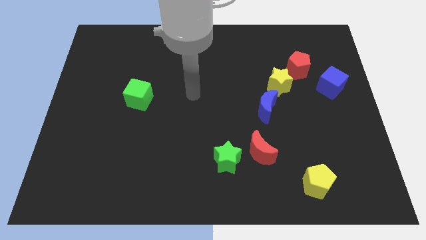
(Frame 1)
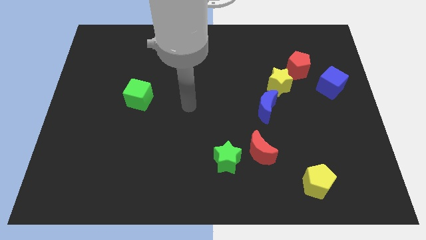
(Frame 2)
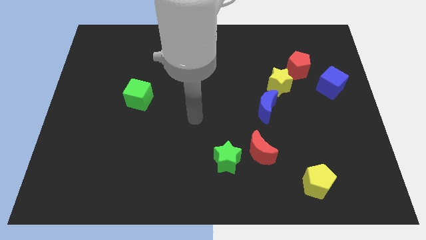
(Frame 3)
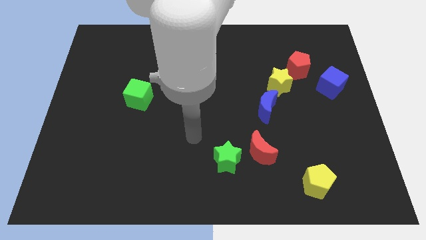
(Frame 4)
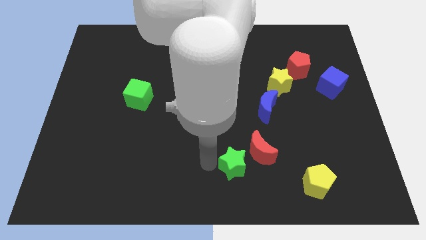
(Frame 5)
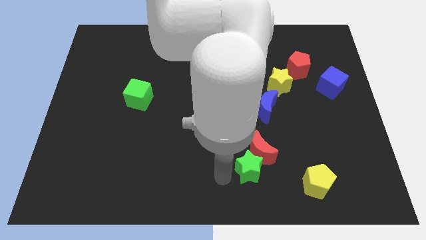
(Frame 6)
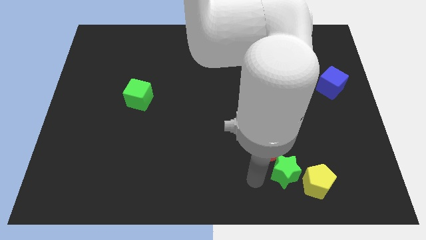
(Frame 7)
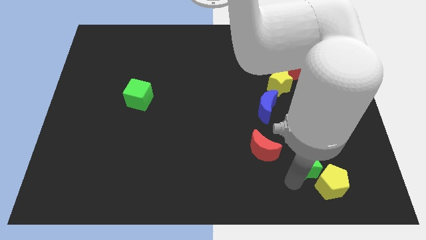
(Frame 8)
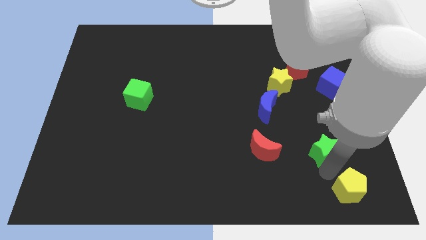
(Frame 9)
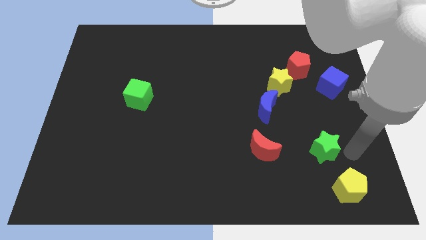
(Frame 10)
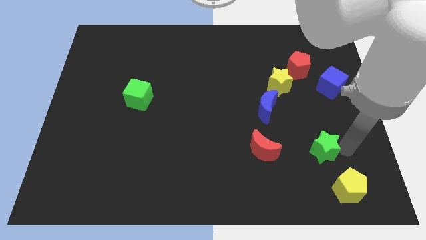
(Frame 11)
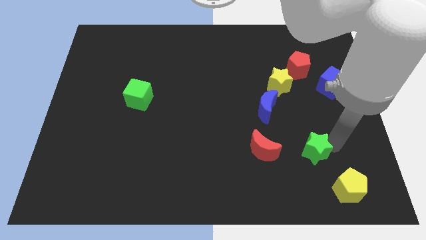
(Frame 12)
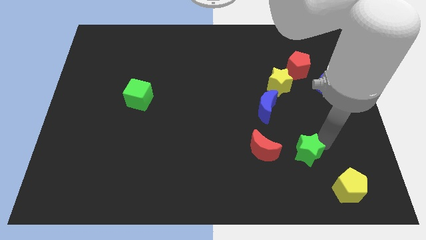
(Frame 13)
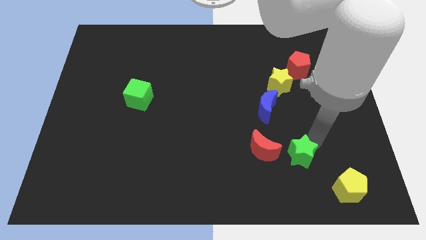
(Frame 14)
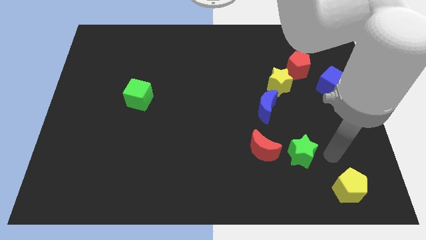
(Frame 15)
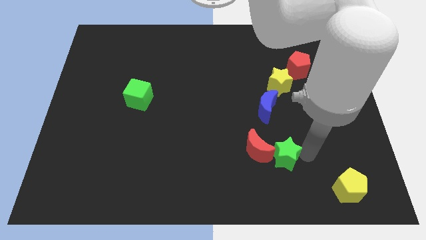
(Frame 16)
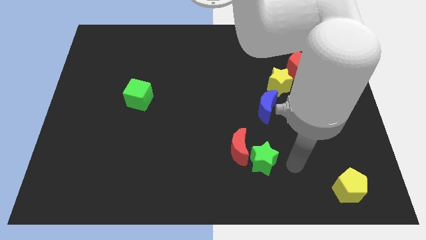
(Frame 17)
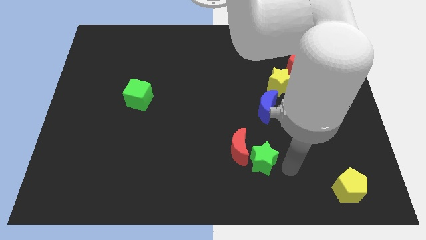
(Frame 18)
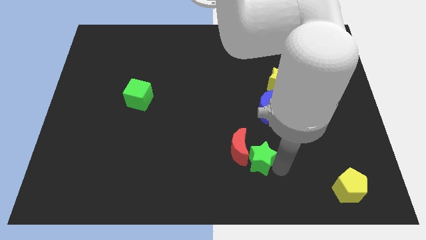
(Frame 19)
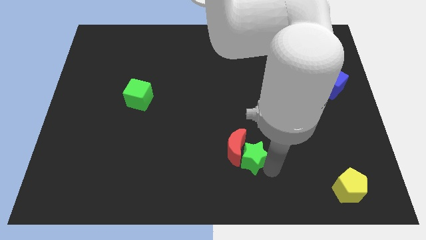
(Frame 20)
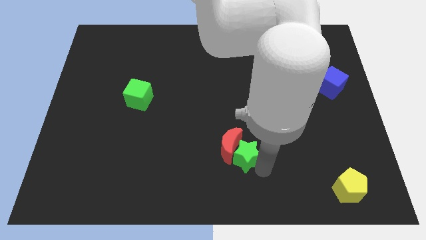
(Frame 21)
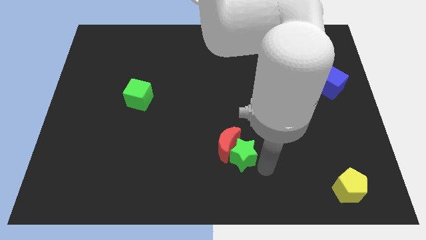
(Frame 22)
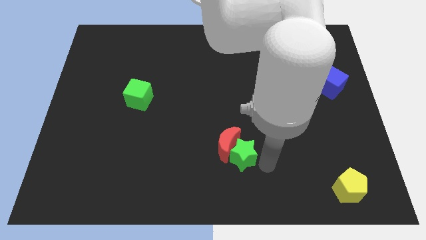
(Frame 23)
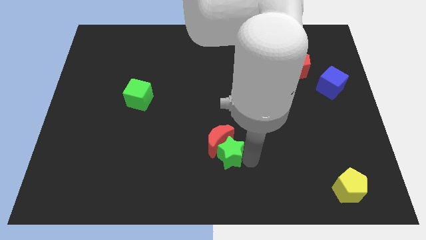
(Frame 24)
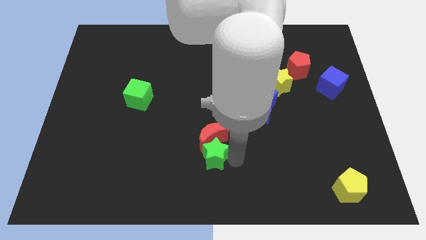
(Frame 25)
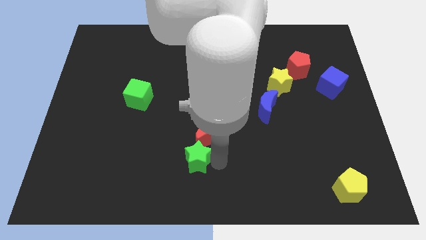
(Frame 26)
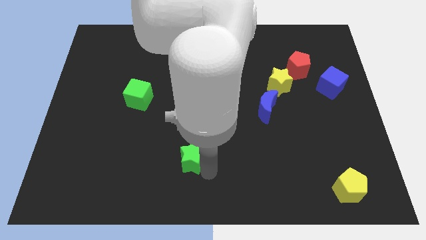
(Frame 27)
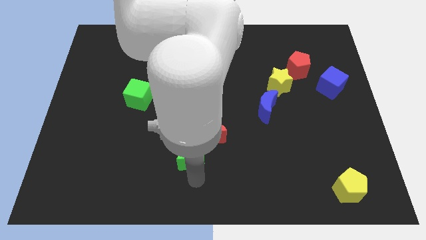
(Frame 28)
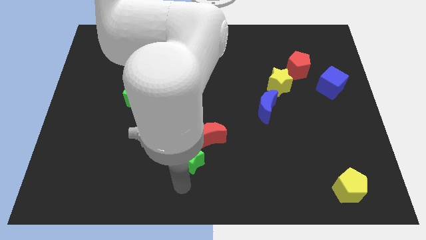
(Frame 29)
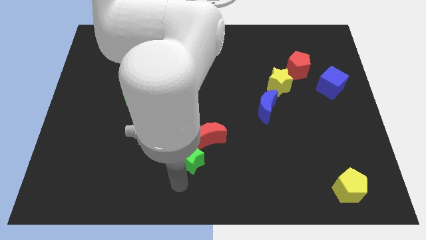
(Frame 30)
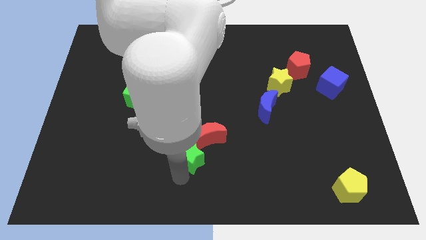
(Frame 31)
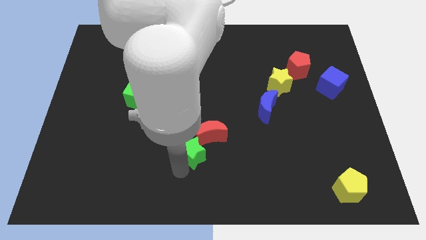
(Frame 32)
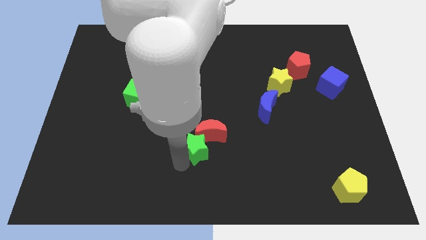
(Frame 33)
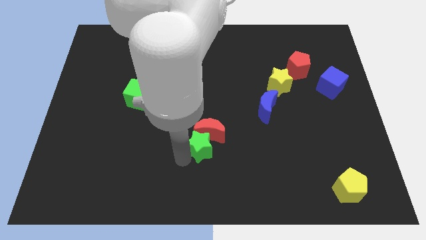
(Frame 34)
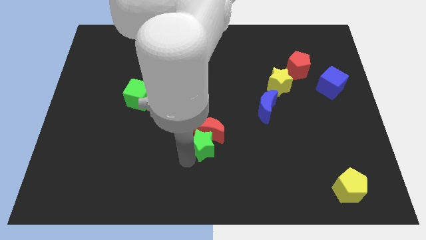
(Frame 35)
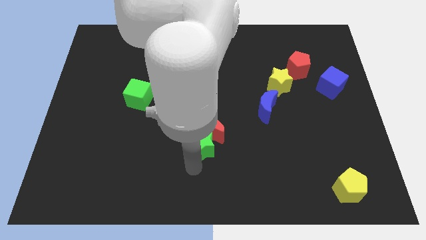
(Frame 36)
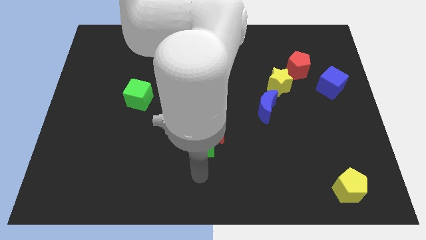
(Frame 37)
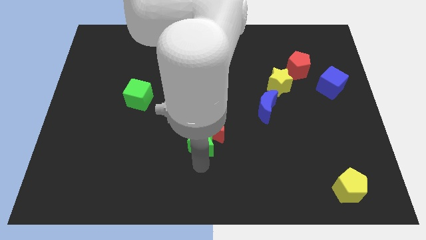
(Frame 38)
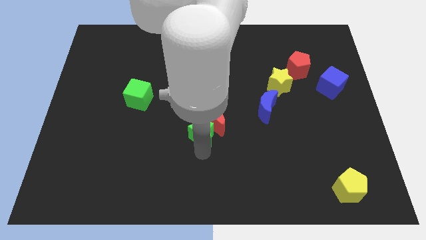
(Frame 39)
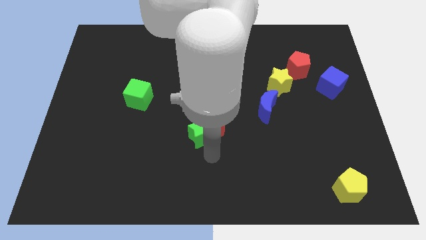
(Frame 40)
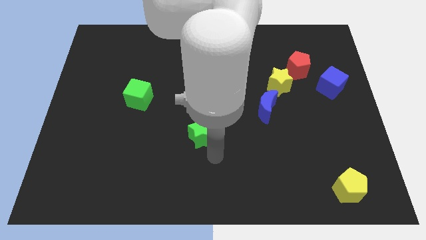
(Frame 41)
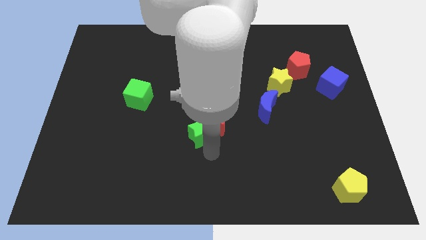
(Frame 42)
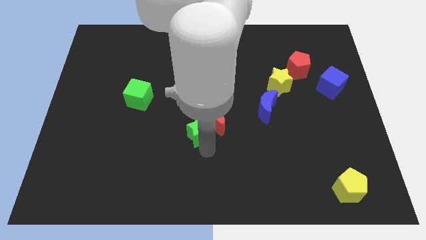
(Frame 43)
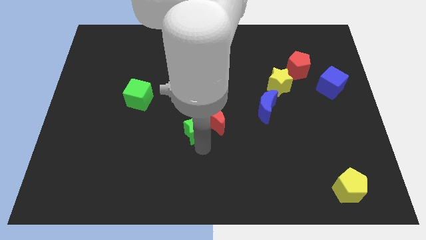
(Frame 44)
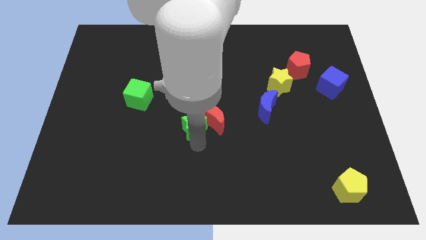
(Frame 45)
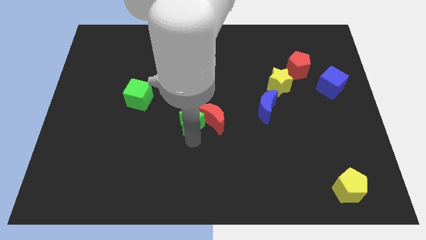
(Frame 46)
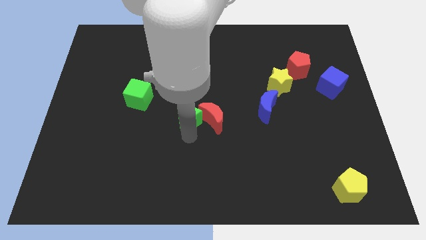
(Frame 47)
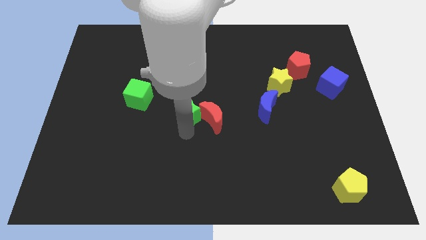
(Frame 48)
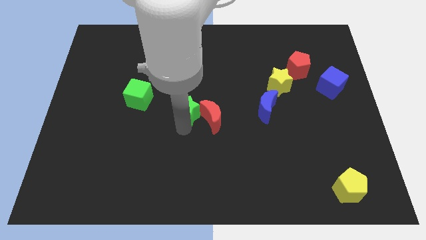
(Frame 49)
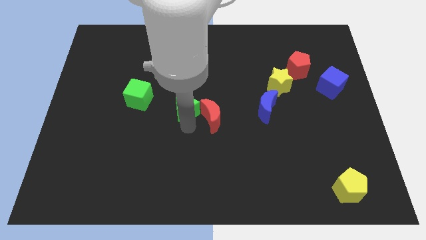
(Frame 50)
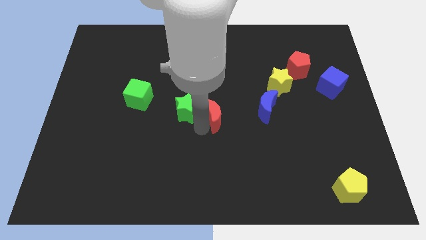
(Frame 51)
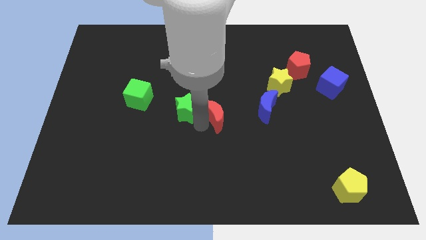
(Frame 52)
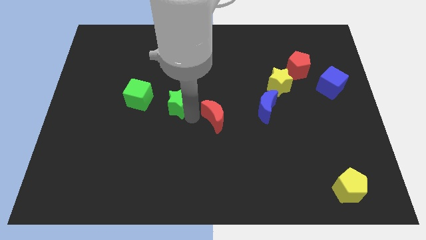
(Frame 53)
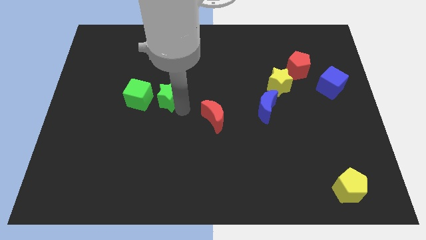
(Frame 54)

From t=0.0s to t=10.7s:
slide the green star up and to the left

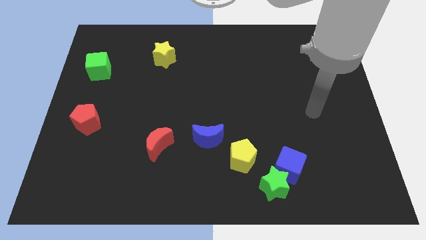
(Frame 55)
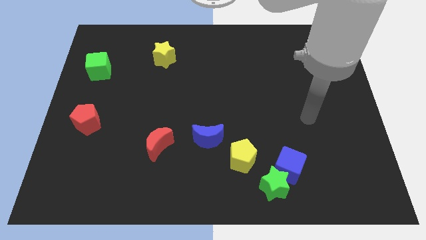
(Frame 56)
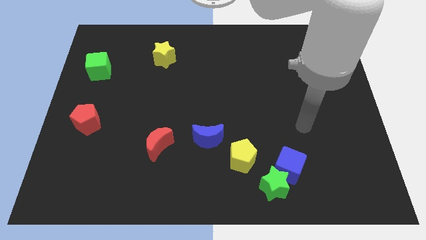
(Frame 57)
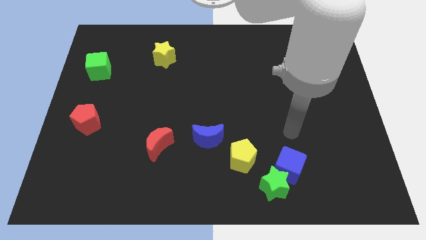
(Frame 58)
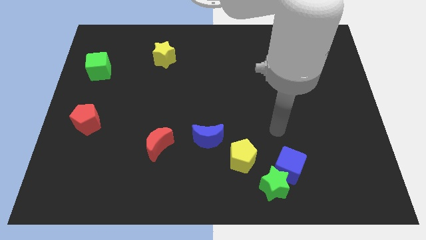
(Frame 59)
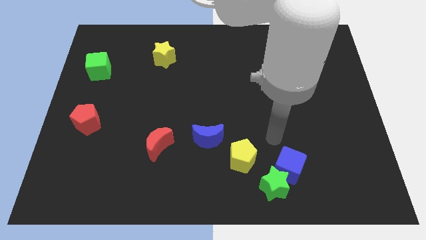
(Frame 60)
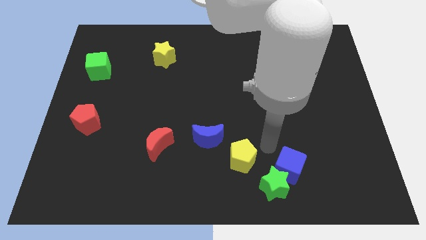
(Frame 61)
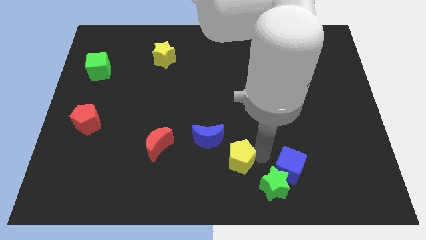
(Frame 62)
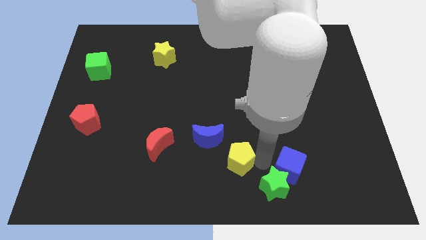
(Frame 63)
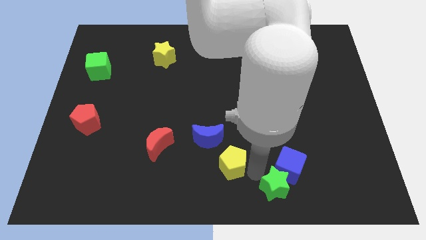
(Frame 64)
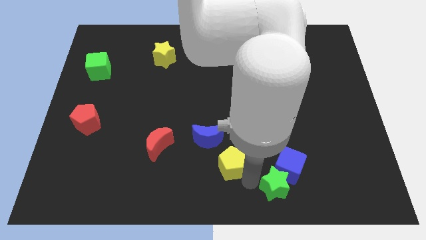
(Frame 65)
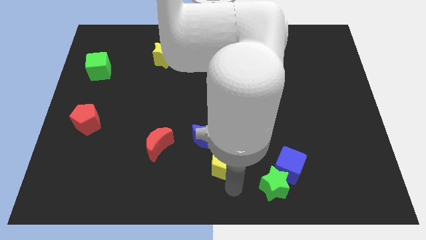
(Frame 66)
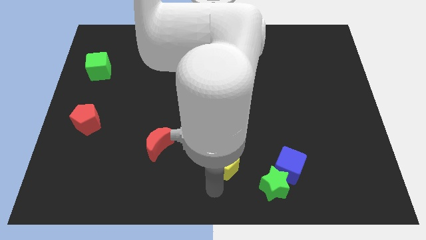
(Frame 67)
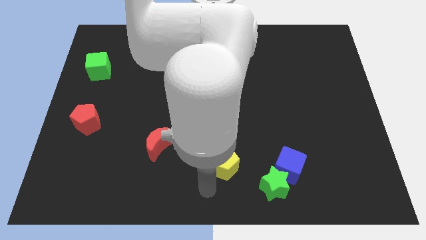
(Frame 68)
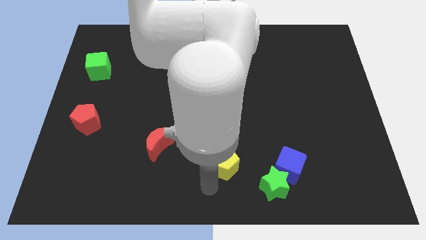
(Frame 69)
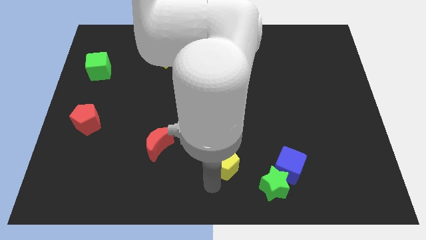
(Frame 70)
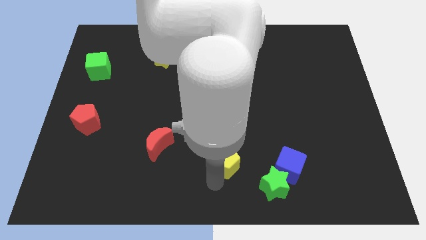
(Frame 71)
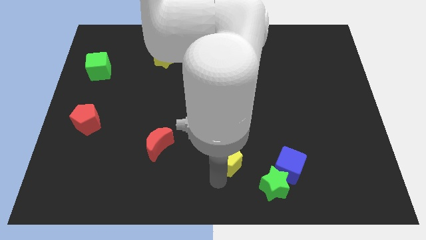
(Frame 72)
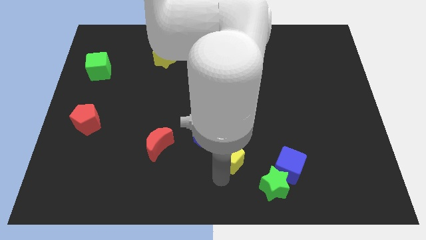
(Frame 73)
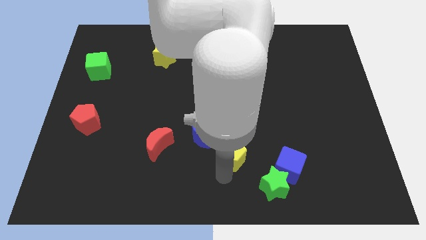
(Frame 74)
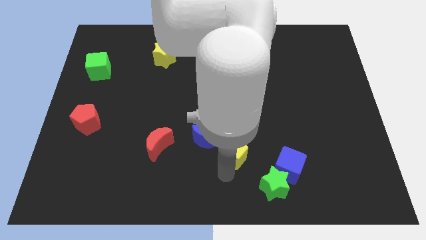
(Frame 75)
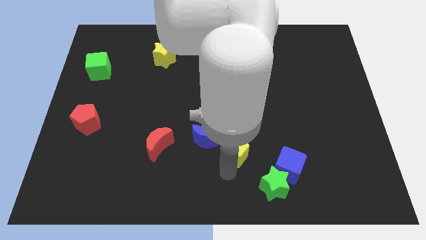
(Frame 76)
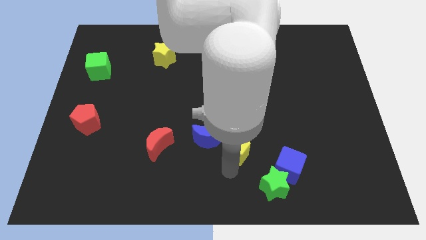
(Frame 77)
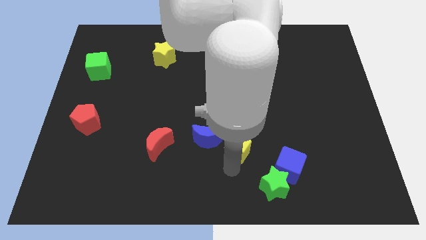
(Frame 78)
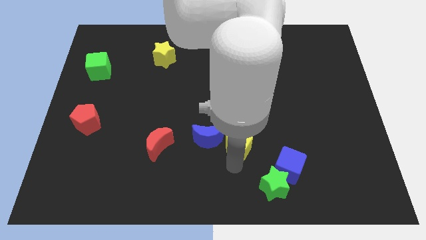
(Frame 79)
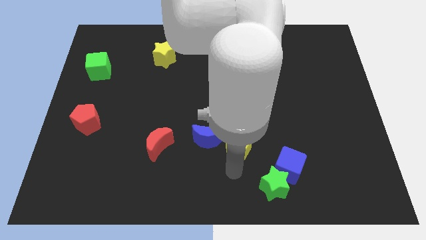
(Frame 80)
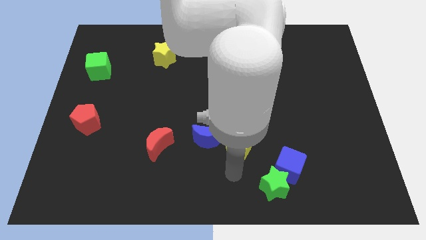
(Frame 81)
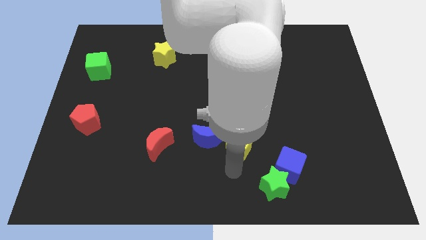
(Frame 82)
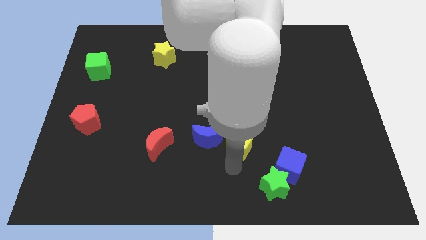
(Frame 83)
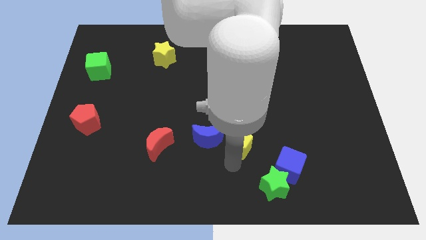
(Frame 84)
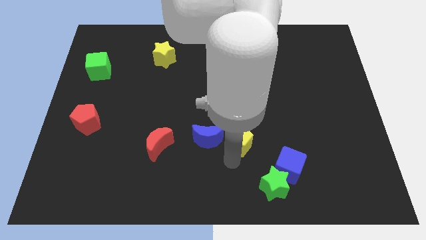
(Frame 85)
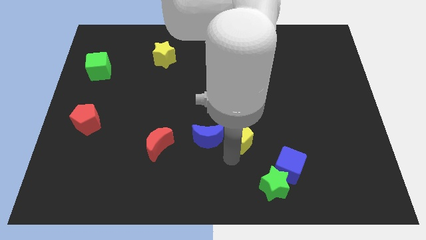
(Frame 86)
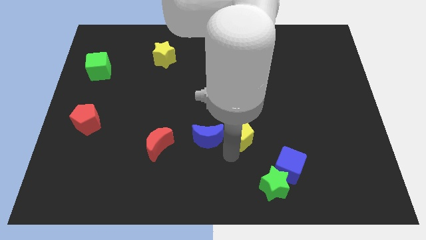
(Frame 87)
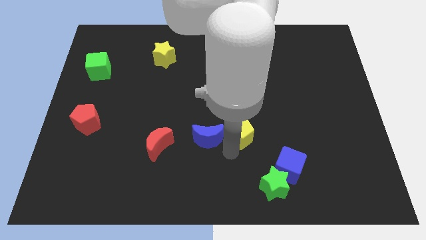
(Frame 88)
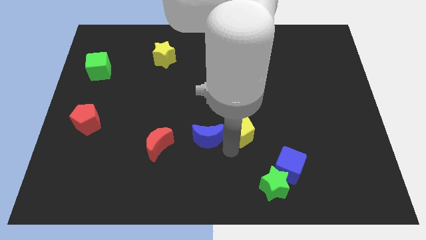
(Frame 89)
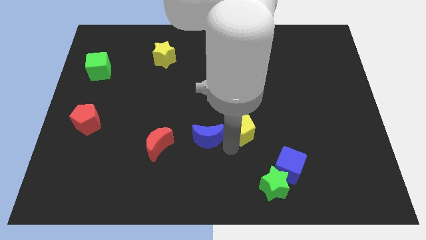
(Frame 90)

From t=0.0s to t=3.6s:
slide the yellow pentagon a little up
